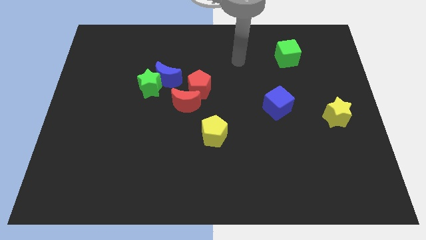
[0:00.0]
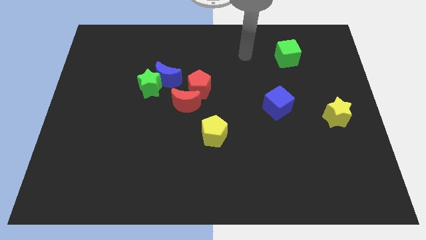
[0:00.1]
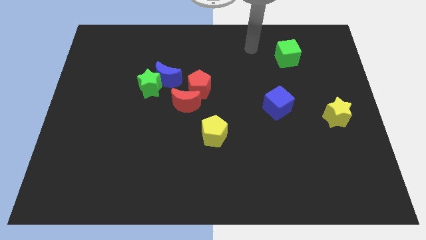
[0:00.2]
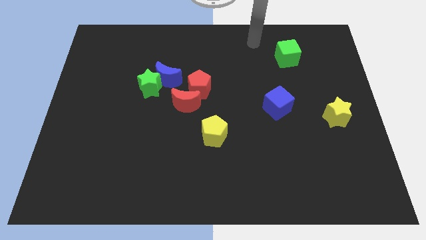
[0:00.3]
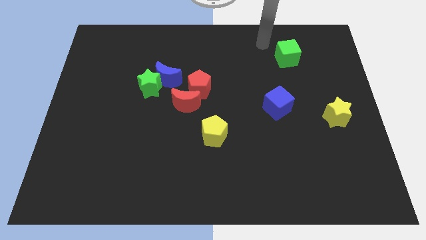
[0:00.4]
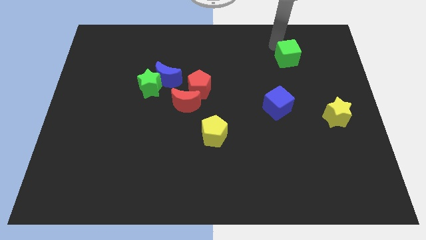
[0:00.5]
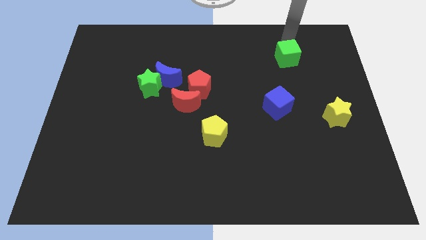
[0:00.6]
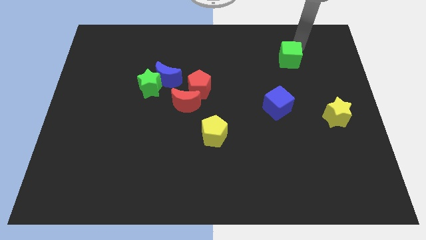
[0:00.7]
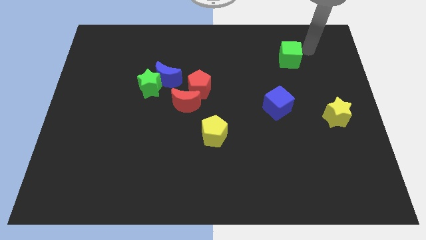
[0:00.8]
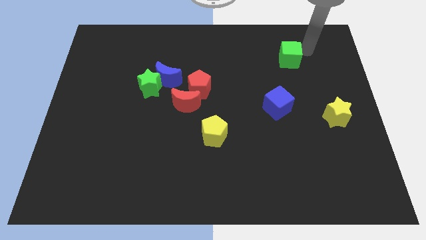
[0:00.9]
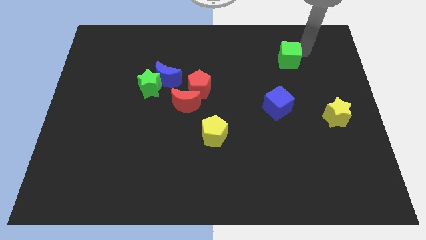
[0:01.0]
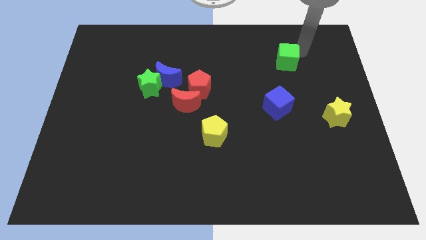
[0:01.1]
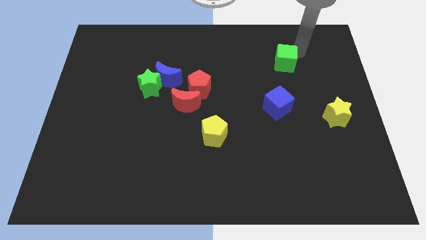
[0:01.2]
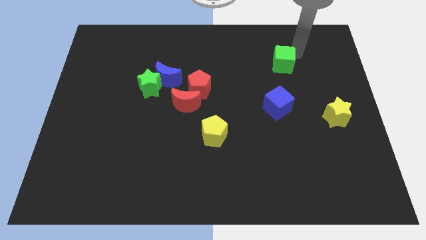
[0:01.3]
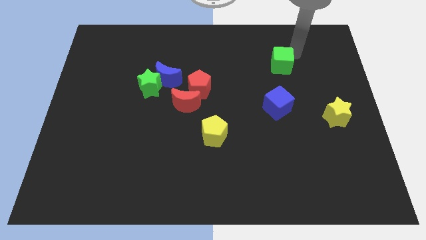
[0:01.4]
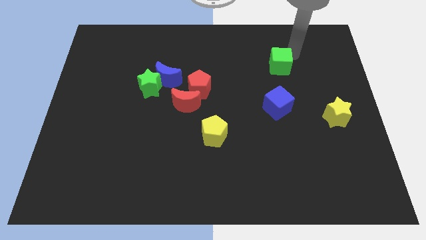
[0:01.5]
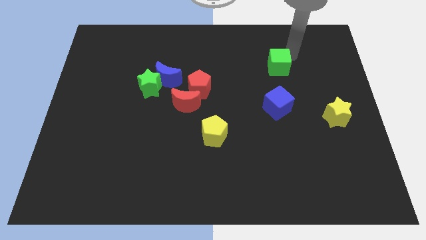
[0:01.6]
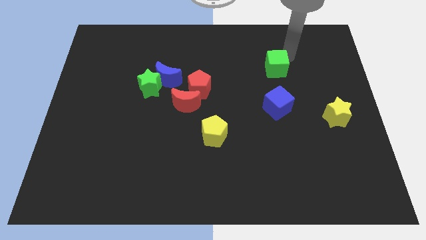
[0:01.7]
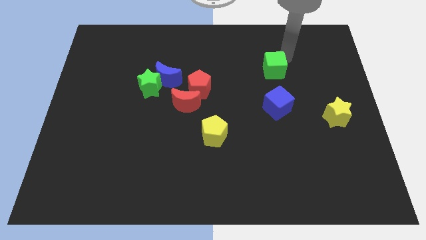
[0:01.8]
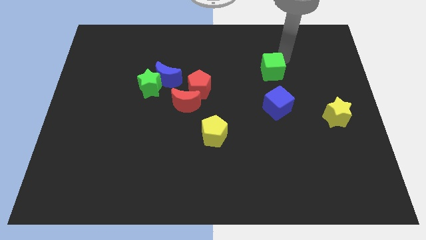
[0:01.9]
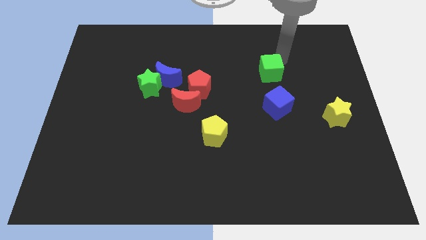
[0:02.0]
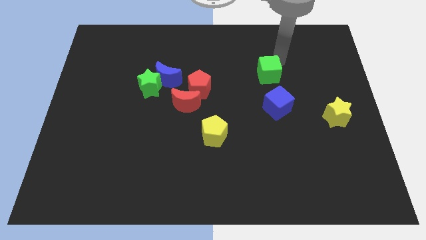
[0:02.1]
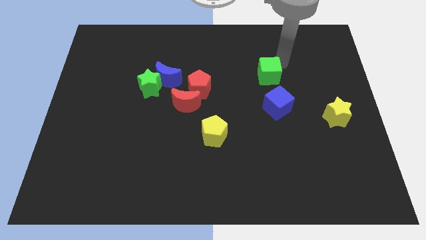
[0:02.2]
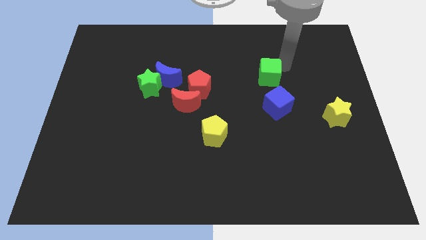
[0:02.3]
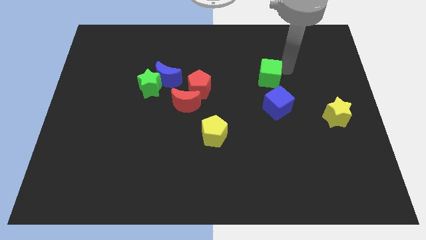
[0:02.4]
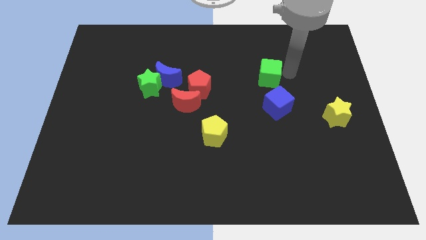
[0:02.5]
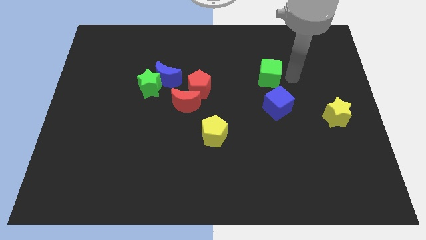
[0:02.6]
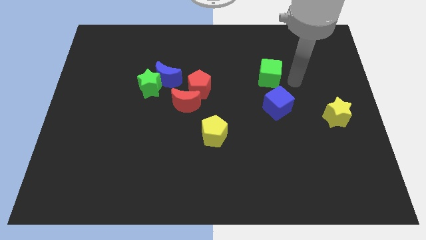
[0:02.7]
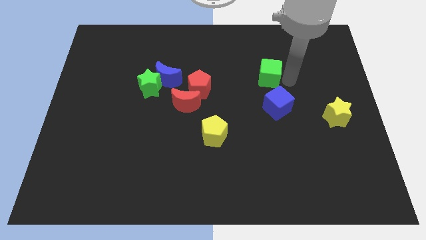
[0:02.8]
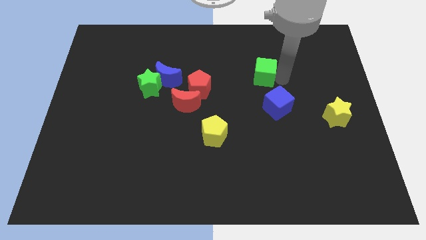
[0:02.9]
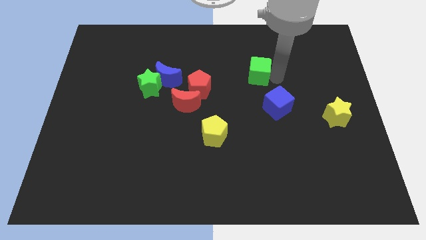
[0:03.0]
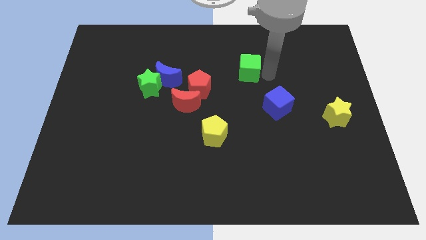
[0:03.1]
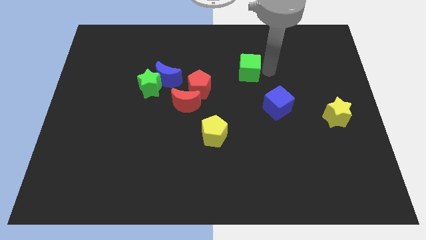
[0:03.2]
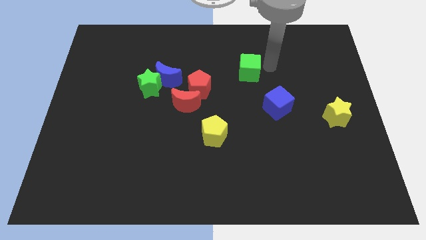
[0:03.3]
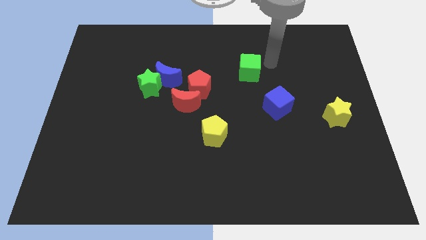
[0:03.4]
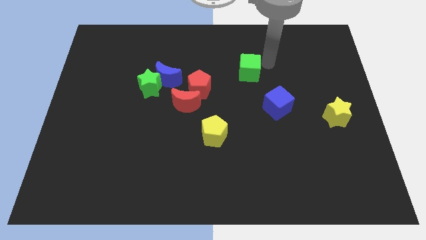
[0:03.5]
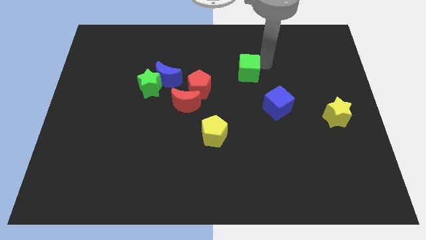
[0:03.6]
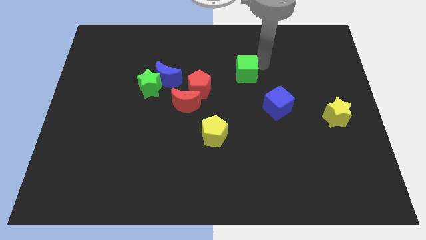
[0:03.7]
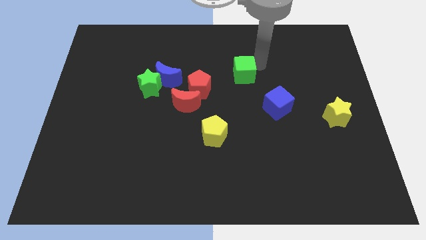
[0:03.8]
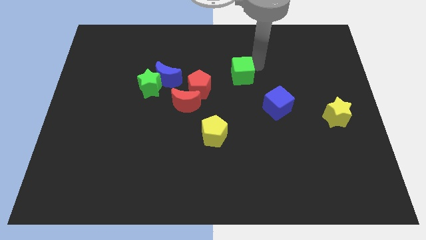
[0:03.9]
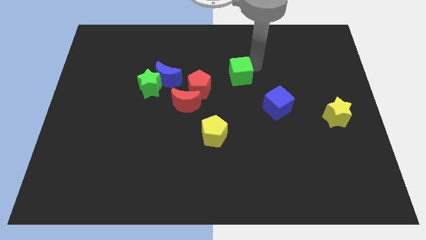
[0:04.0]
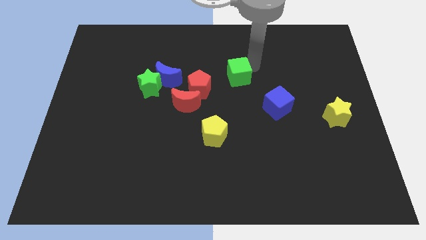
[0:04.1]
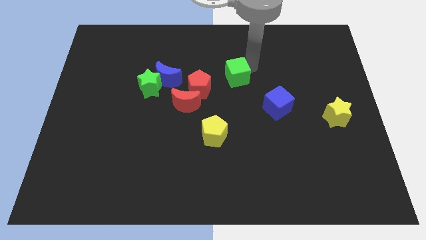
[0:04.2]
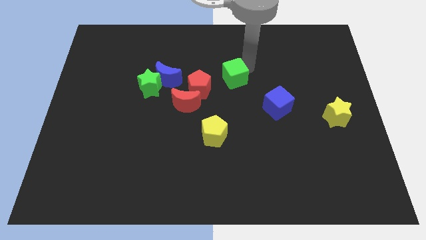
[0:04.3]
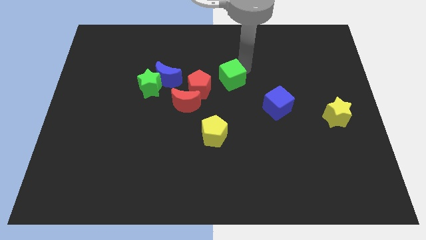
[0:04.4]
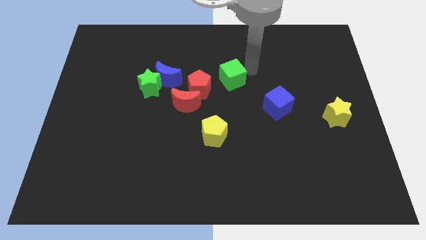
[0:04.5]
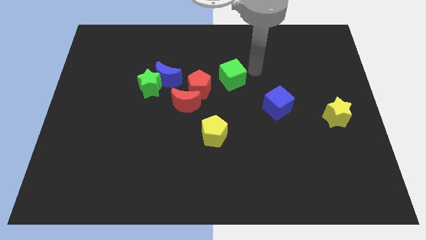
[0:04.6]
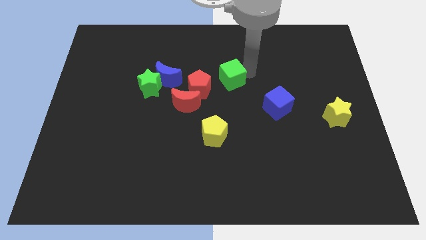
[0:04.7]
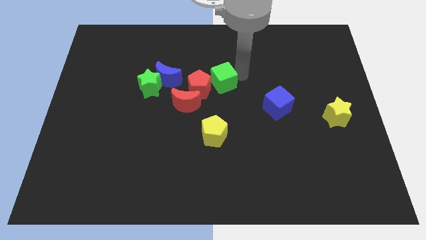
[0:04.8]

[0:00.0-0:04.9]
move the green cube to the red pentagon

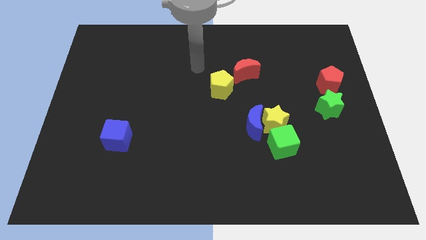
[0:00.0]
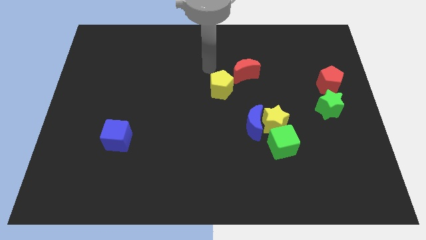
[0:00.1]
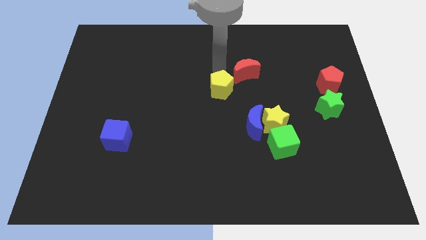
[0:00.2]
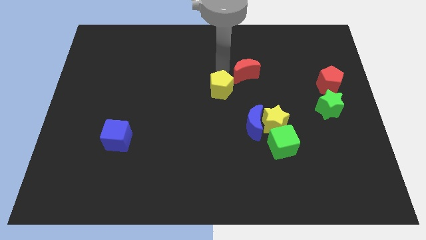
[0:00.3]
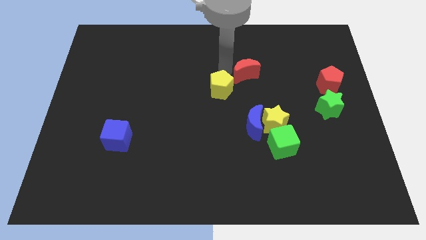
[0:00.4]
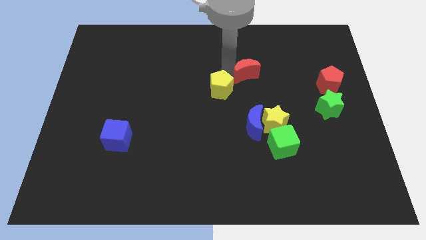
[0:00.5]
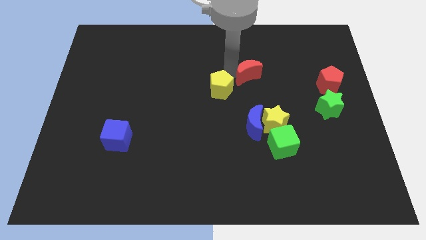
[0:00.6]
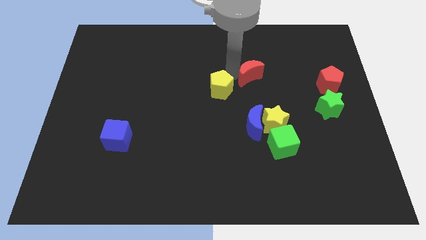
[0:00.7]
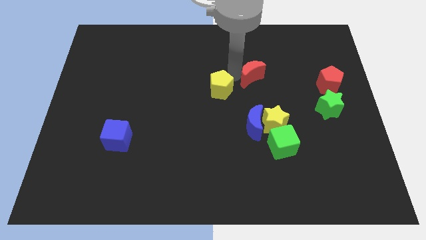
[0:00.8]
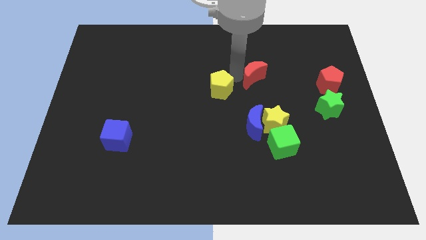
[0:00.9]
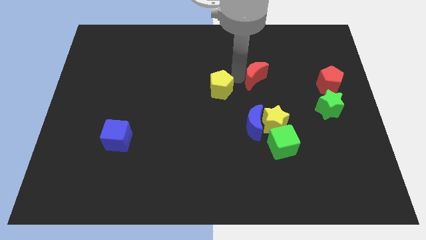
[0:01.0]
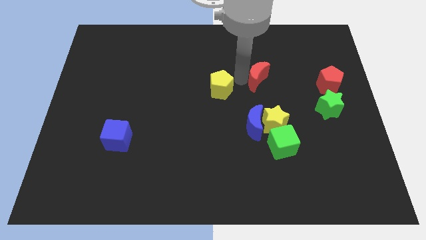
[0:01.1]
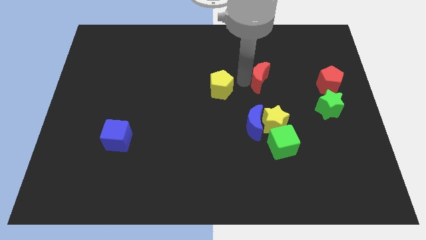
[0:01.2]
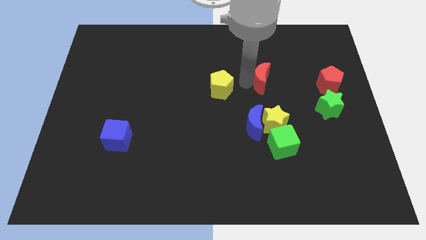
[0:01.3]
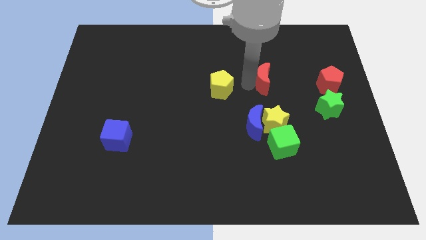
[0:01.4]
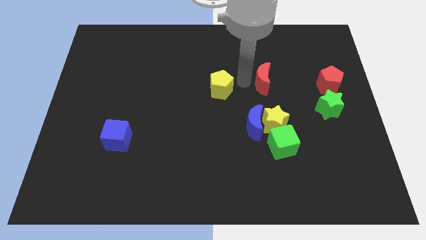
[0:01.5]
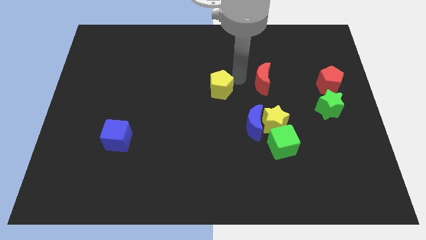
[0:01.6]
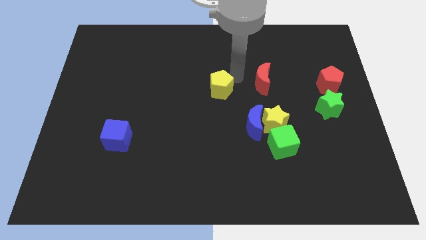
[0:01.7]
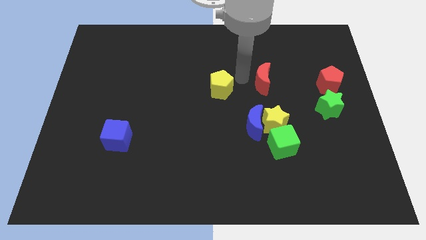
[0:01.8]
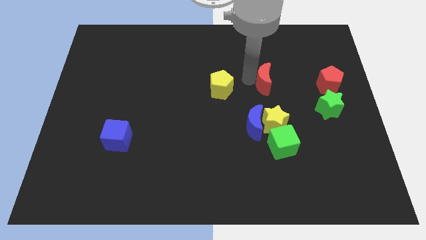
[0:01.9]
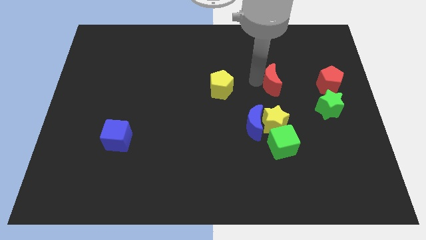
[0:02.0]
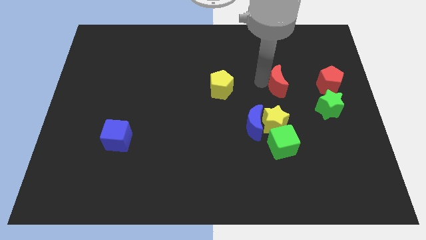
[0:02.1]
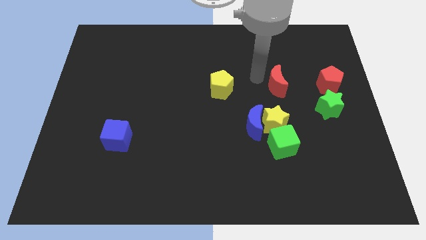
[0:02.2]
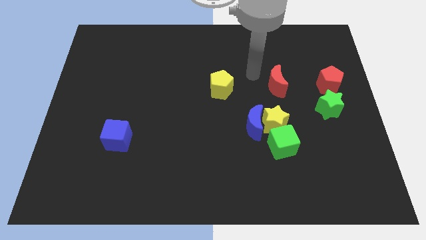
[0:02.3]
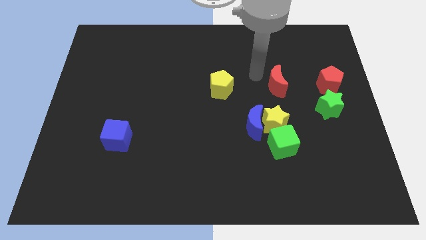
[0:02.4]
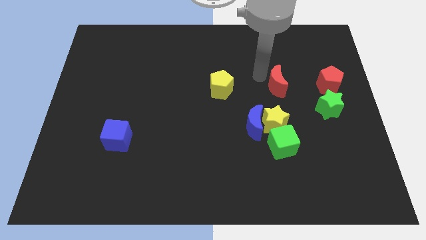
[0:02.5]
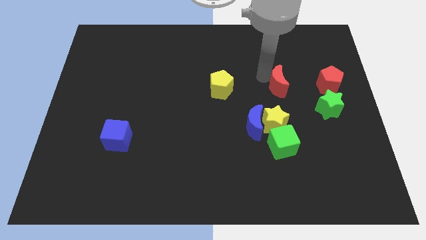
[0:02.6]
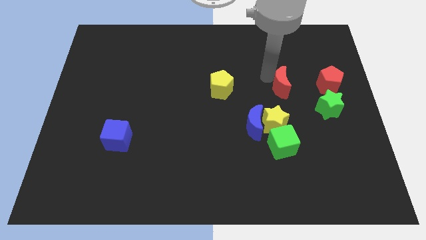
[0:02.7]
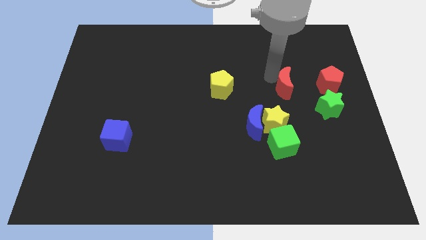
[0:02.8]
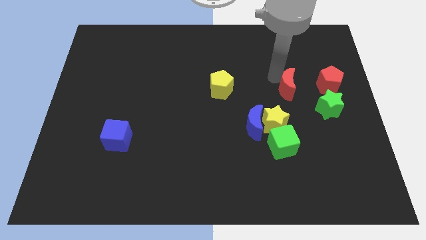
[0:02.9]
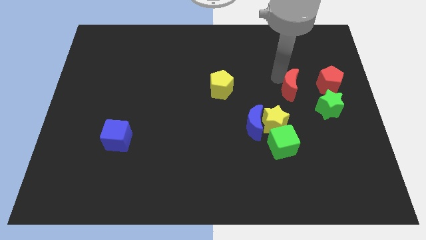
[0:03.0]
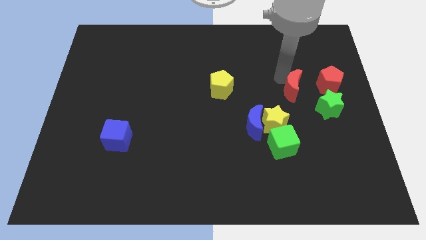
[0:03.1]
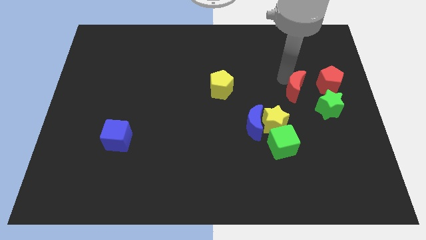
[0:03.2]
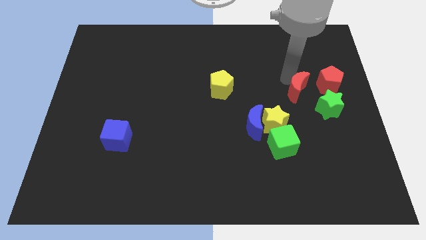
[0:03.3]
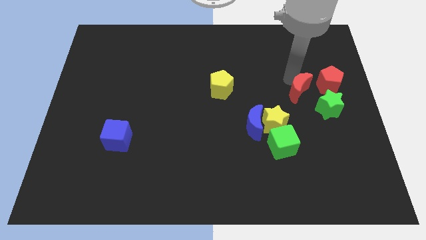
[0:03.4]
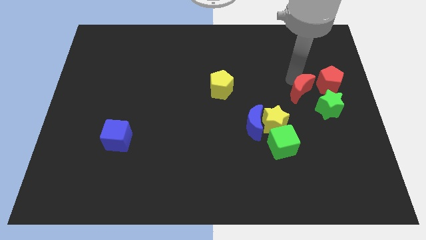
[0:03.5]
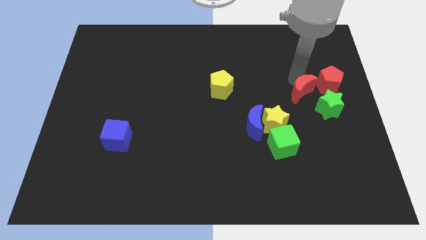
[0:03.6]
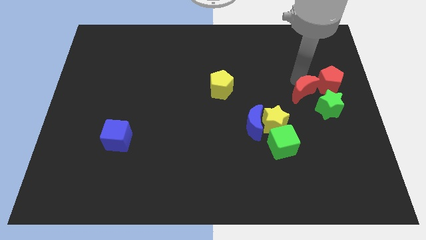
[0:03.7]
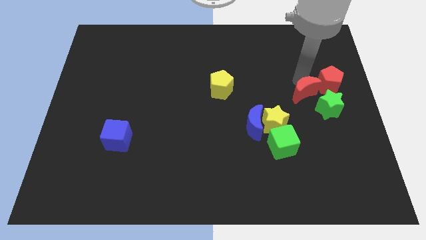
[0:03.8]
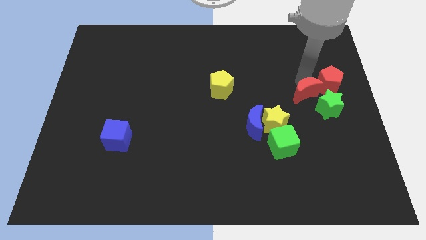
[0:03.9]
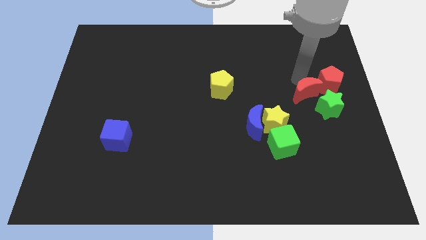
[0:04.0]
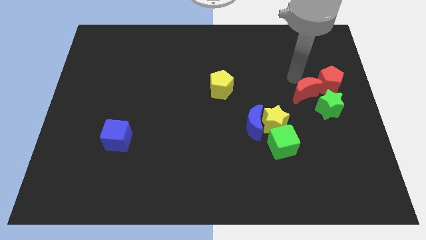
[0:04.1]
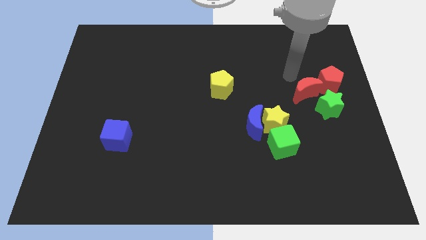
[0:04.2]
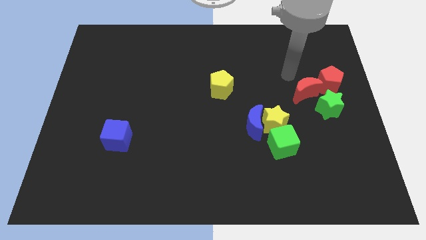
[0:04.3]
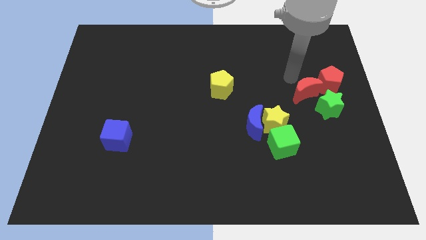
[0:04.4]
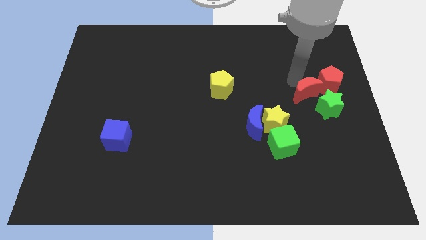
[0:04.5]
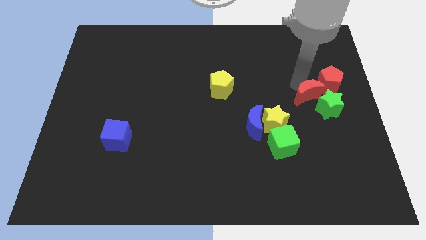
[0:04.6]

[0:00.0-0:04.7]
slide the red moon close to the green star
